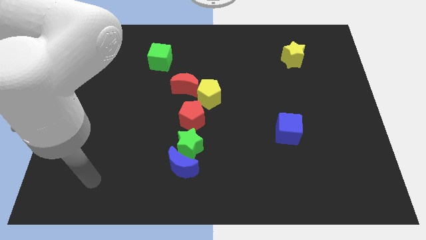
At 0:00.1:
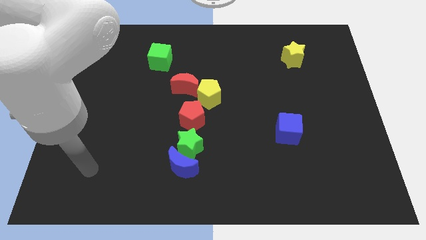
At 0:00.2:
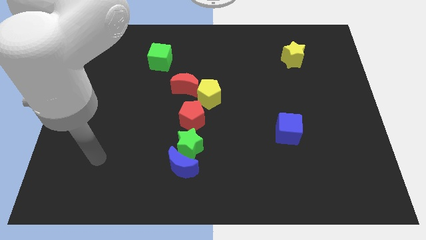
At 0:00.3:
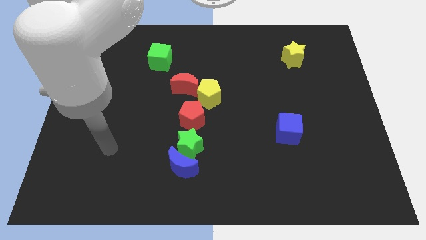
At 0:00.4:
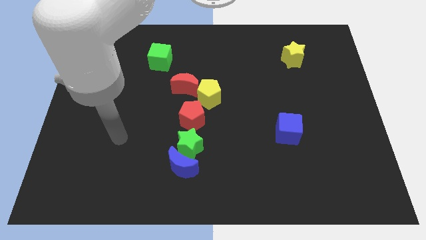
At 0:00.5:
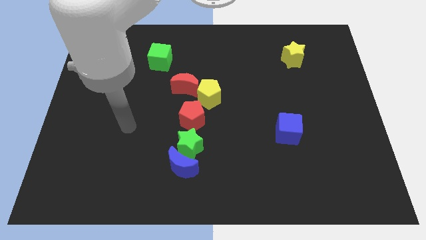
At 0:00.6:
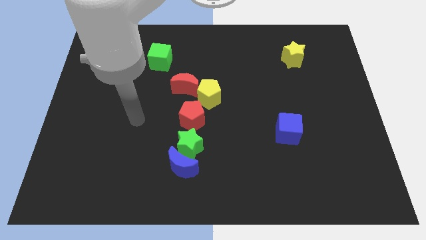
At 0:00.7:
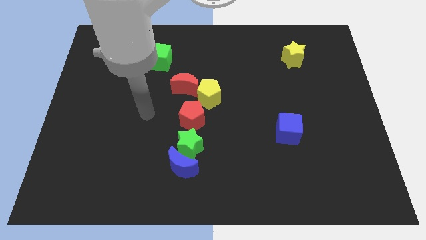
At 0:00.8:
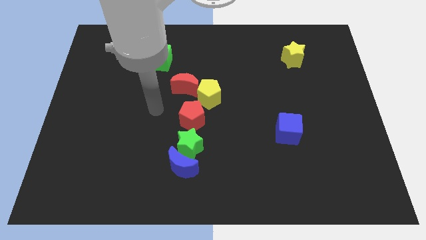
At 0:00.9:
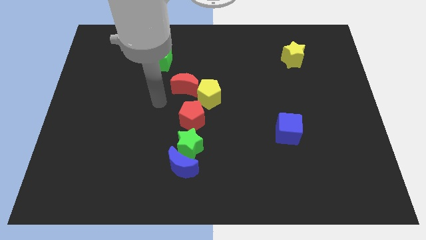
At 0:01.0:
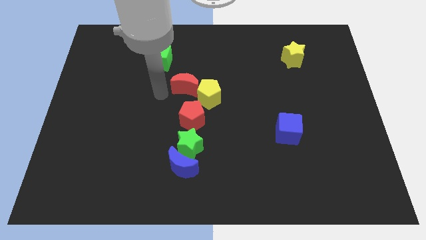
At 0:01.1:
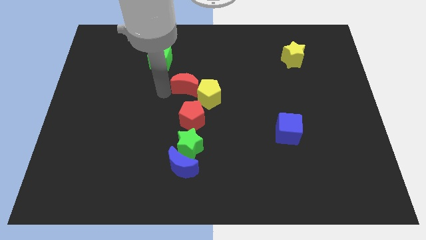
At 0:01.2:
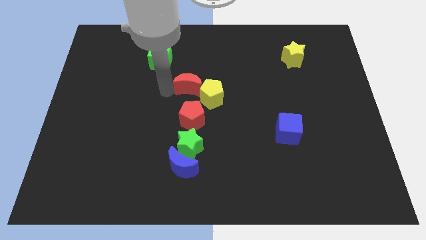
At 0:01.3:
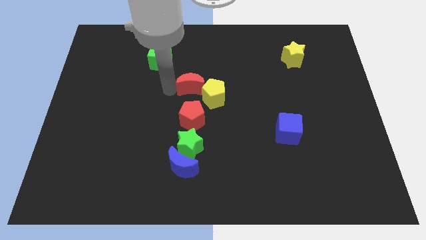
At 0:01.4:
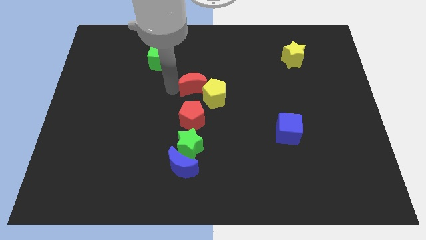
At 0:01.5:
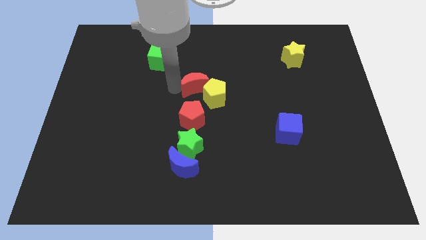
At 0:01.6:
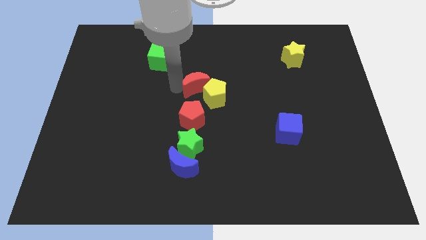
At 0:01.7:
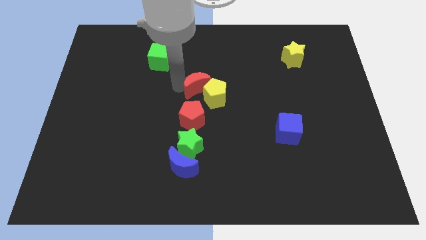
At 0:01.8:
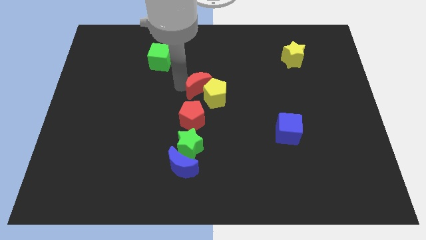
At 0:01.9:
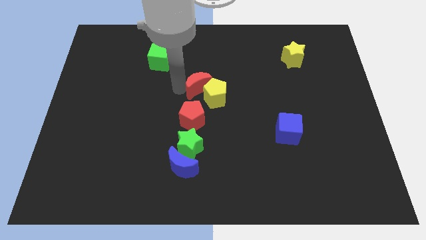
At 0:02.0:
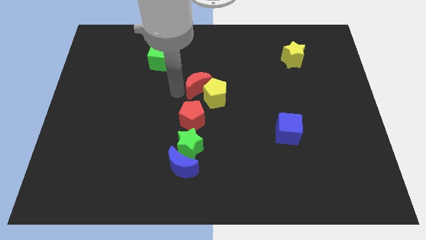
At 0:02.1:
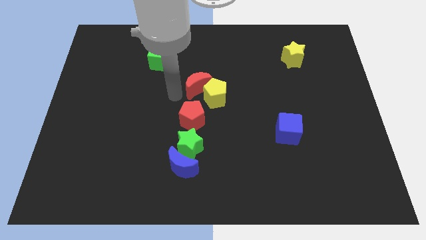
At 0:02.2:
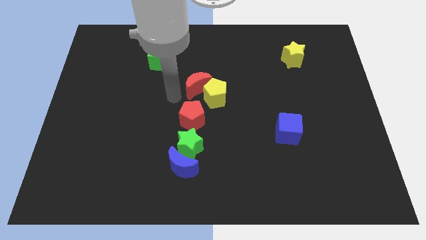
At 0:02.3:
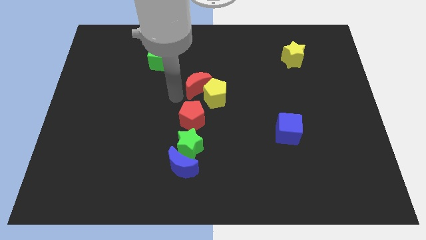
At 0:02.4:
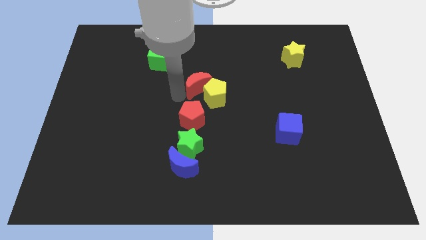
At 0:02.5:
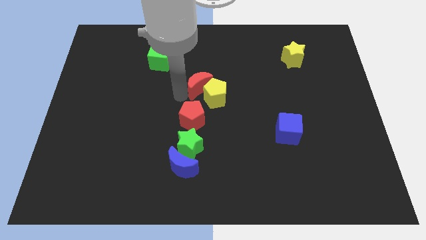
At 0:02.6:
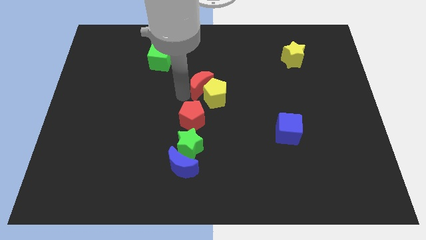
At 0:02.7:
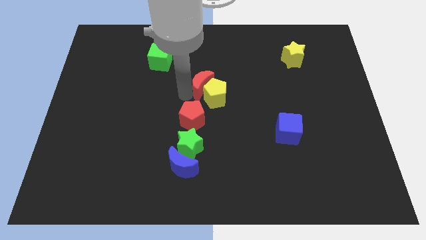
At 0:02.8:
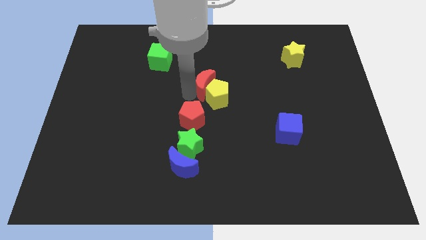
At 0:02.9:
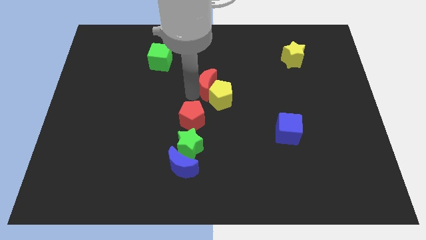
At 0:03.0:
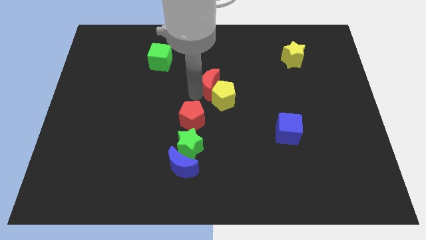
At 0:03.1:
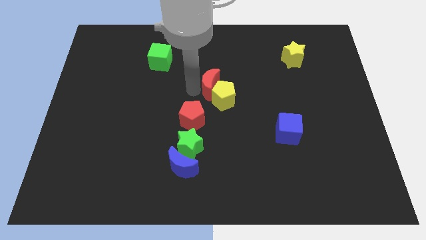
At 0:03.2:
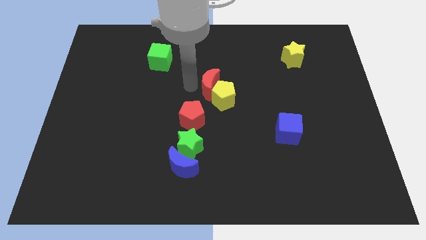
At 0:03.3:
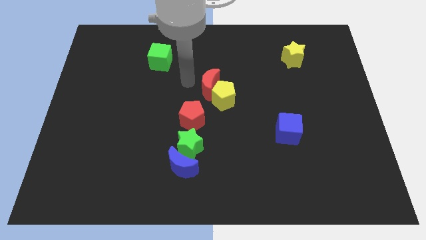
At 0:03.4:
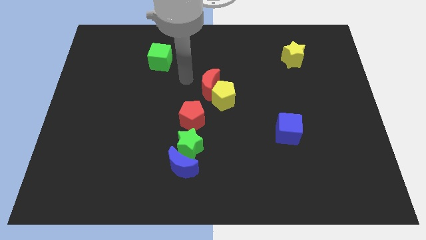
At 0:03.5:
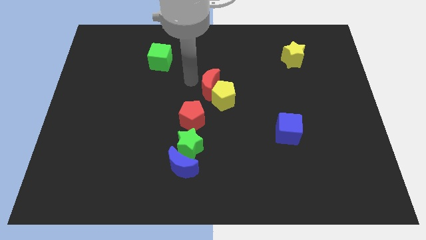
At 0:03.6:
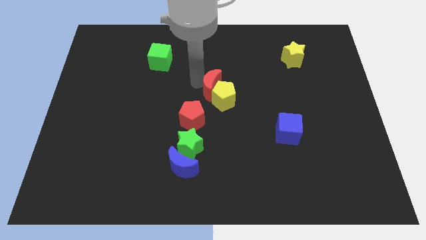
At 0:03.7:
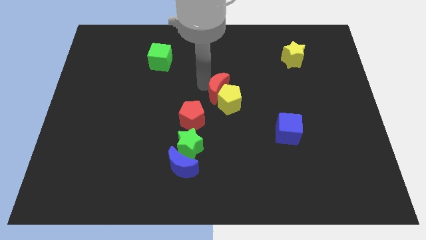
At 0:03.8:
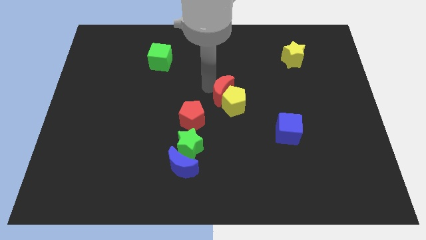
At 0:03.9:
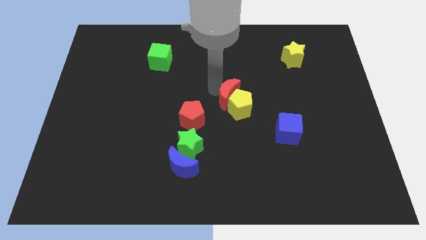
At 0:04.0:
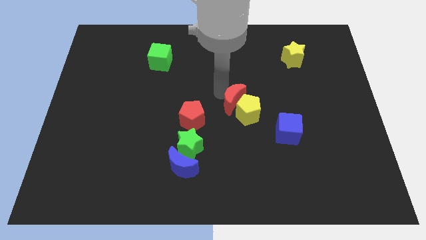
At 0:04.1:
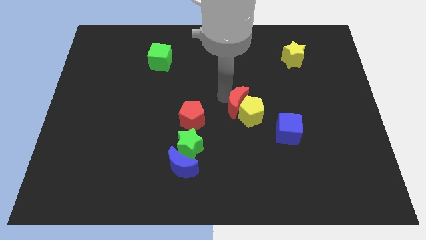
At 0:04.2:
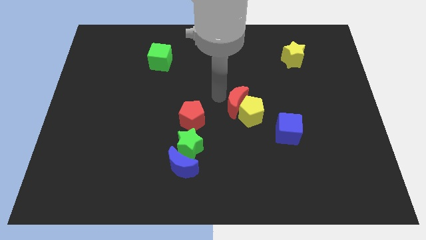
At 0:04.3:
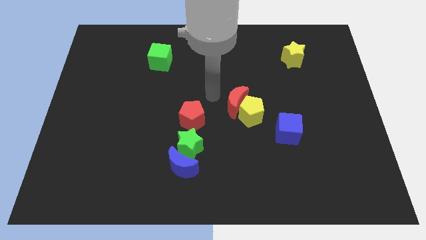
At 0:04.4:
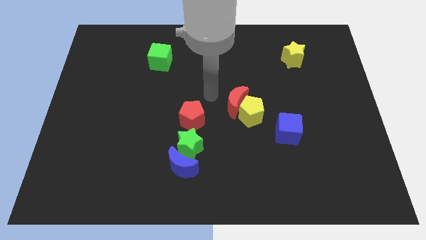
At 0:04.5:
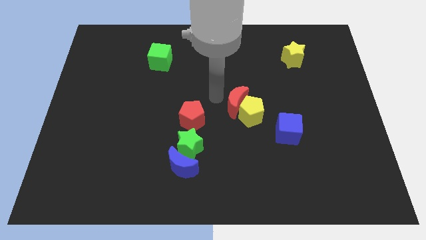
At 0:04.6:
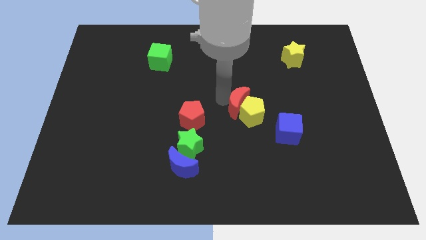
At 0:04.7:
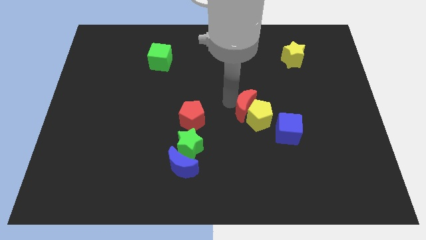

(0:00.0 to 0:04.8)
move the red moon diagonally up and to the left of the blue cube
